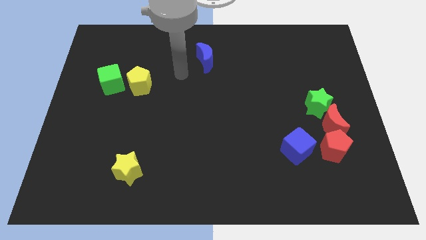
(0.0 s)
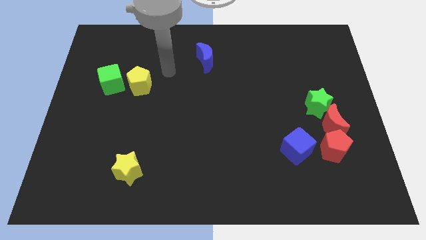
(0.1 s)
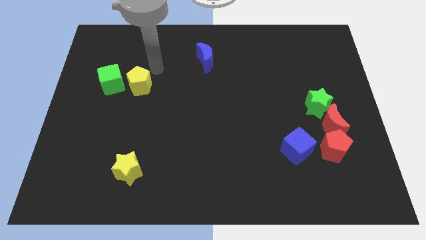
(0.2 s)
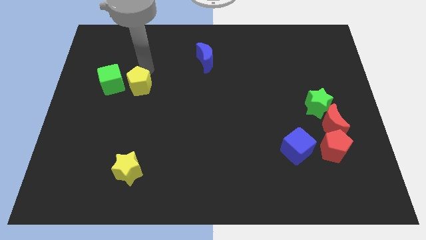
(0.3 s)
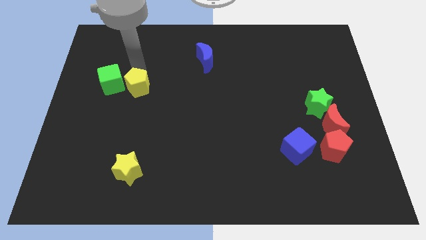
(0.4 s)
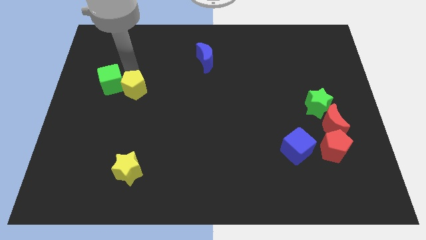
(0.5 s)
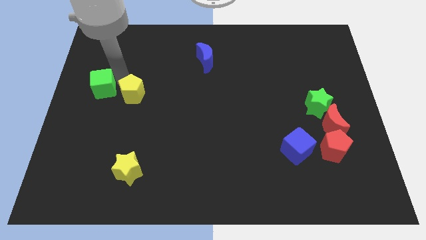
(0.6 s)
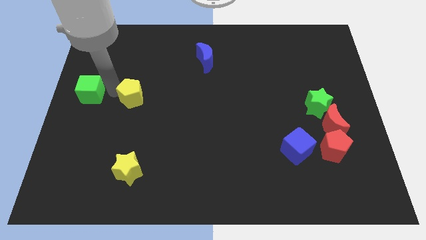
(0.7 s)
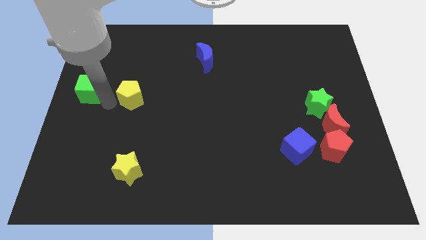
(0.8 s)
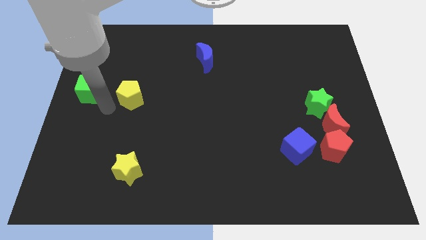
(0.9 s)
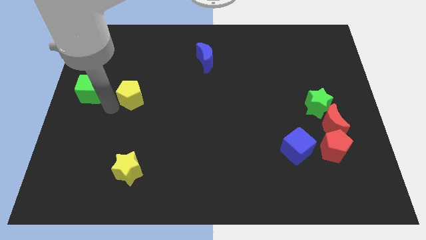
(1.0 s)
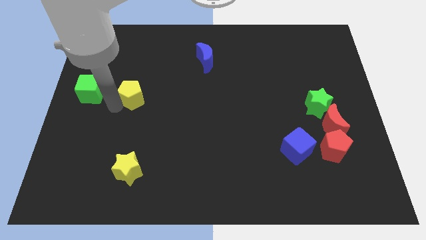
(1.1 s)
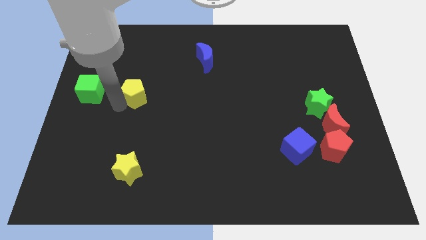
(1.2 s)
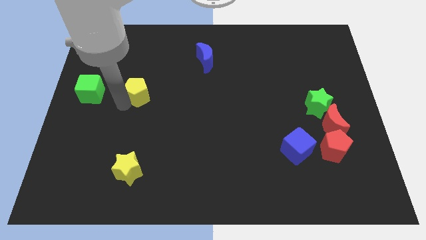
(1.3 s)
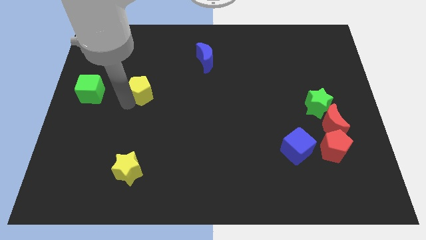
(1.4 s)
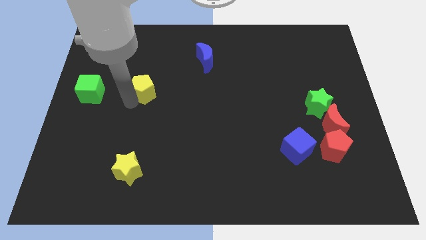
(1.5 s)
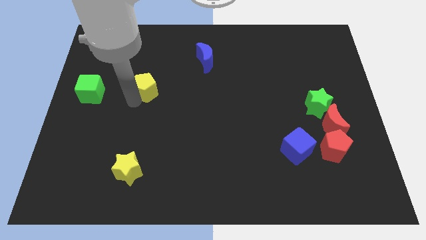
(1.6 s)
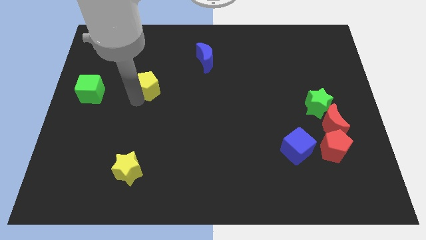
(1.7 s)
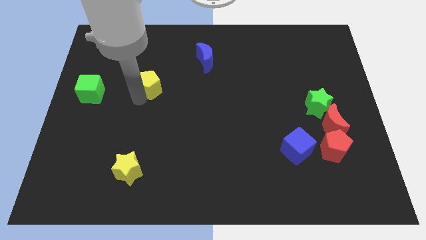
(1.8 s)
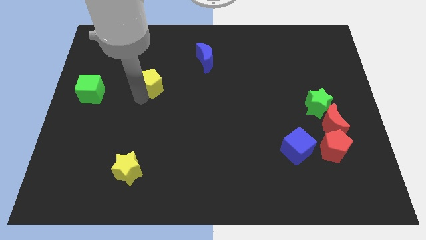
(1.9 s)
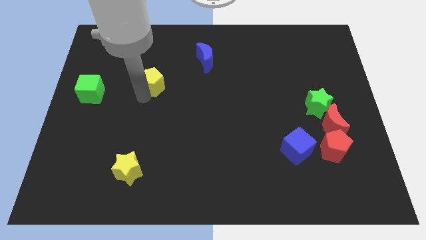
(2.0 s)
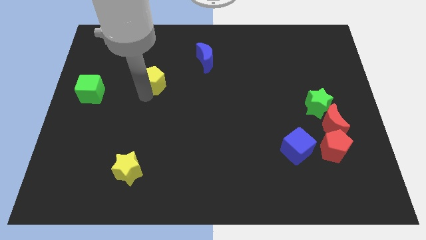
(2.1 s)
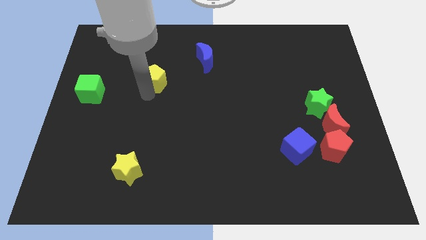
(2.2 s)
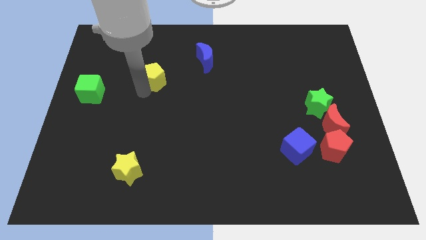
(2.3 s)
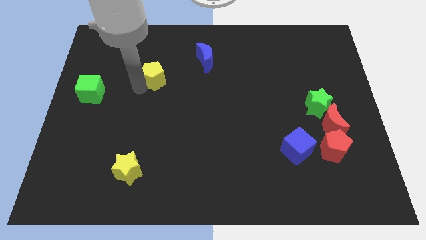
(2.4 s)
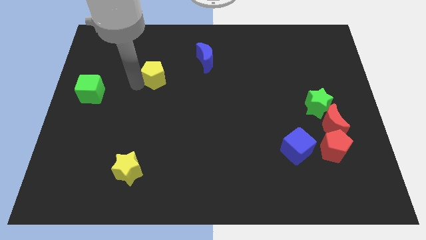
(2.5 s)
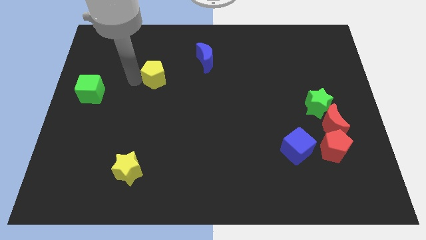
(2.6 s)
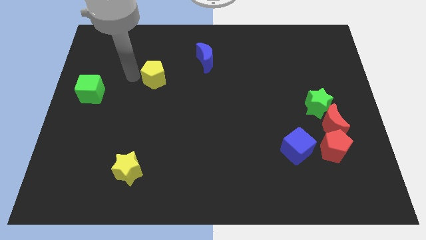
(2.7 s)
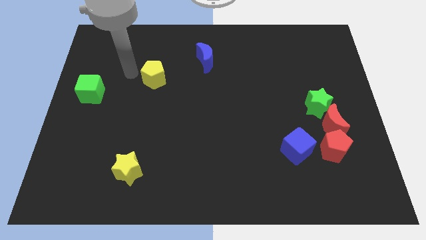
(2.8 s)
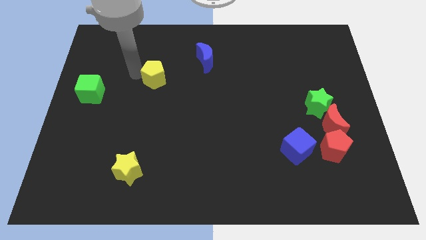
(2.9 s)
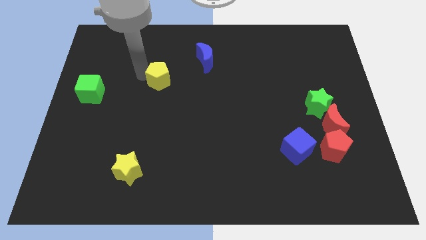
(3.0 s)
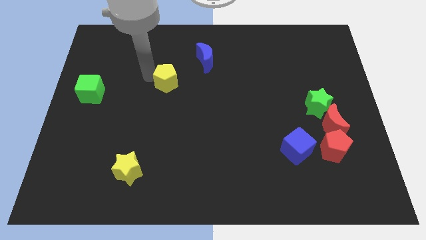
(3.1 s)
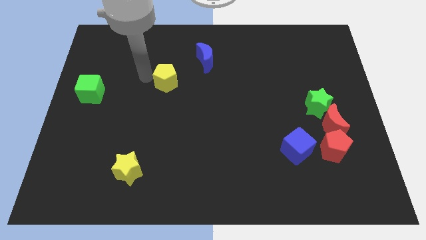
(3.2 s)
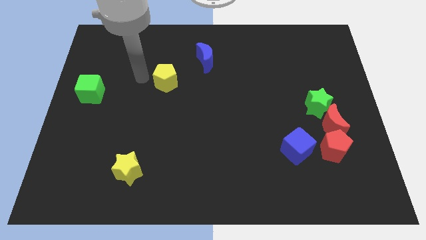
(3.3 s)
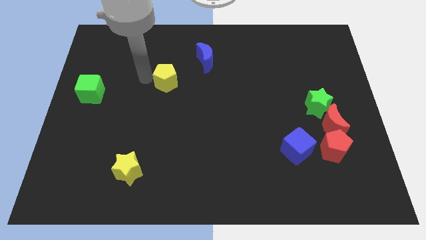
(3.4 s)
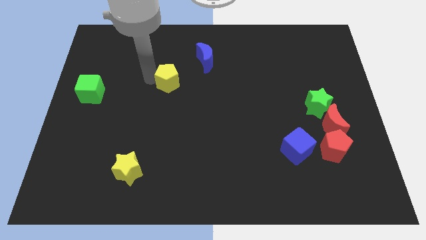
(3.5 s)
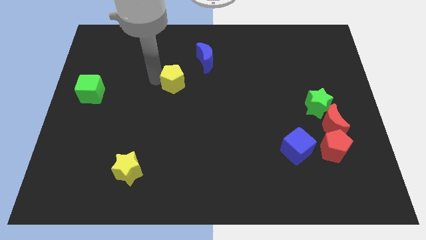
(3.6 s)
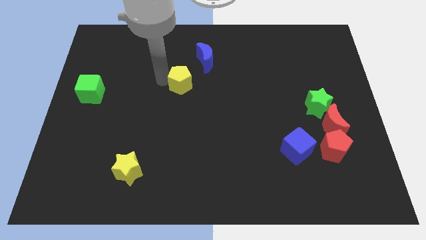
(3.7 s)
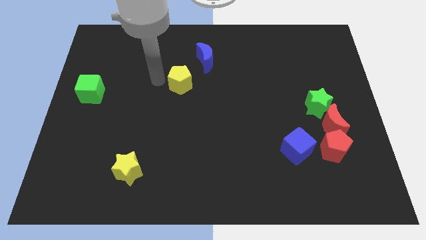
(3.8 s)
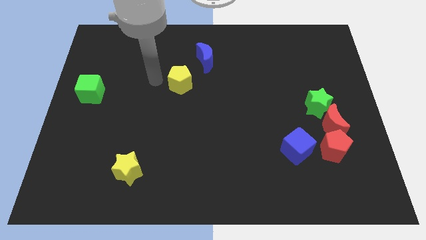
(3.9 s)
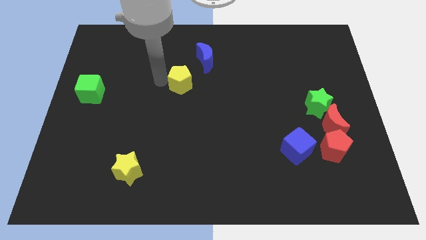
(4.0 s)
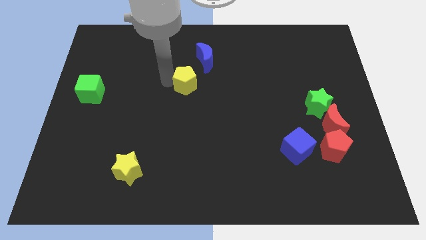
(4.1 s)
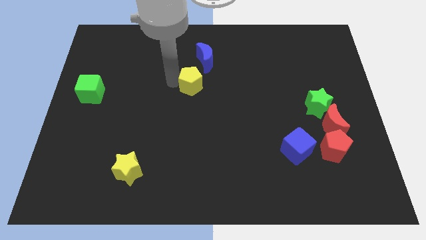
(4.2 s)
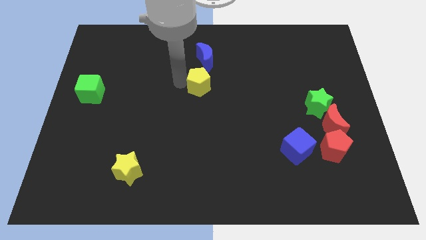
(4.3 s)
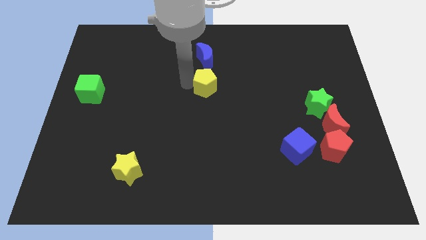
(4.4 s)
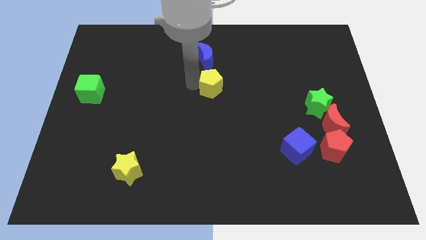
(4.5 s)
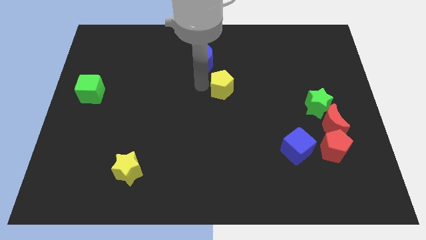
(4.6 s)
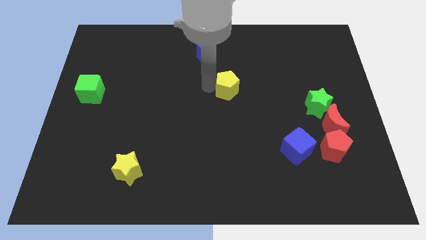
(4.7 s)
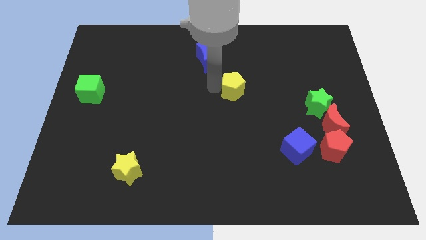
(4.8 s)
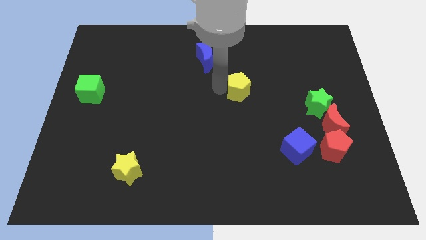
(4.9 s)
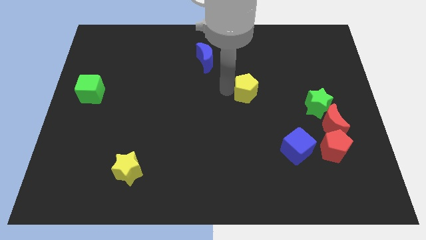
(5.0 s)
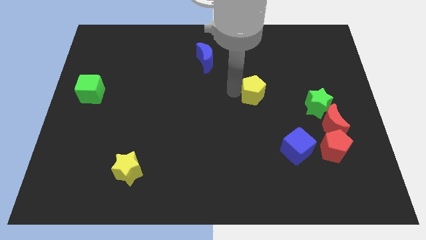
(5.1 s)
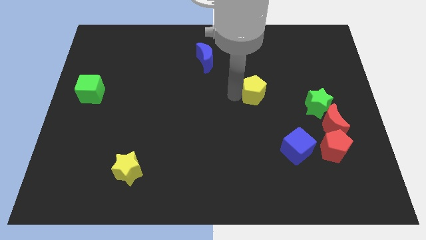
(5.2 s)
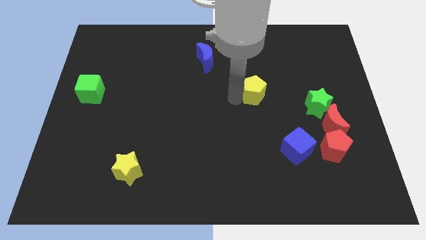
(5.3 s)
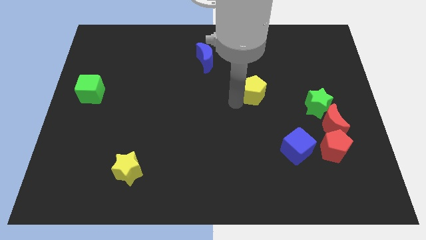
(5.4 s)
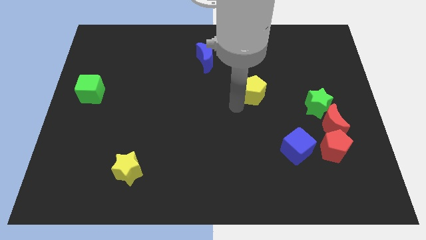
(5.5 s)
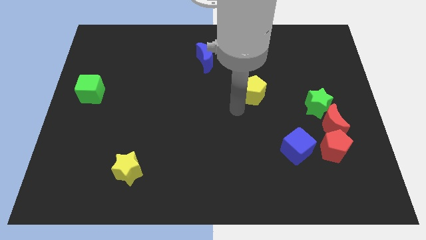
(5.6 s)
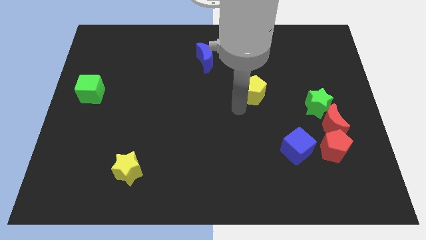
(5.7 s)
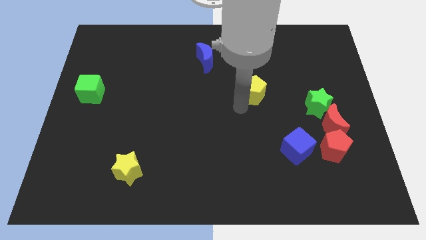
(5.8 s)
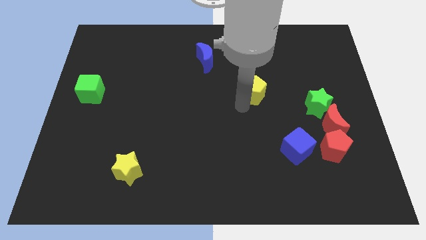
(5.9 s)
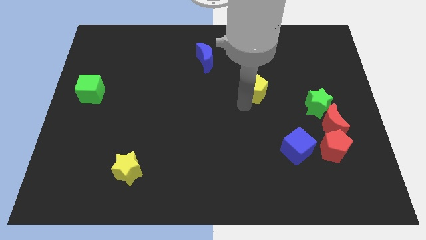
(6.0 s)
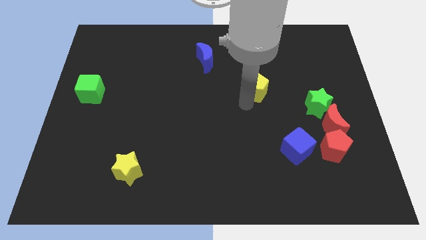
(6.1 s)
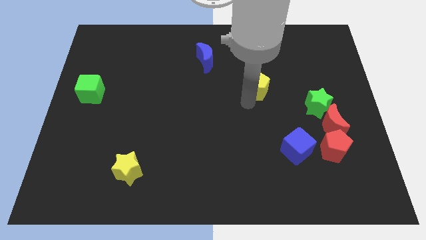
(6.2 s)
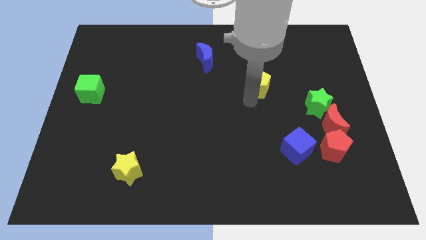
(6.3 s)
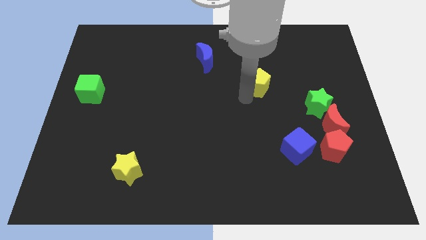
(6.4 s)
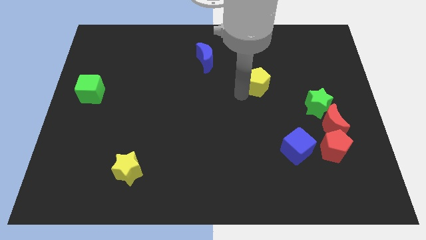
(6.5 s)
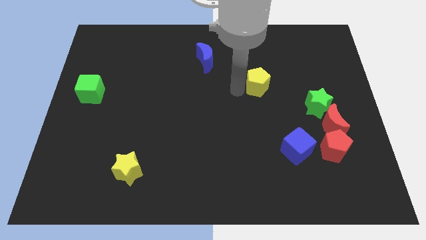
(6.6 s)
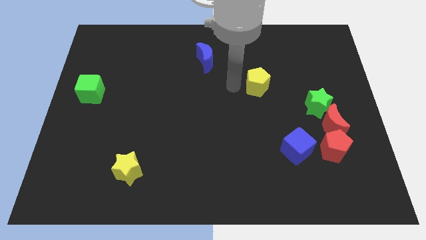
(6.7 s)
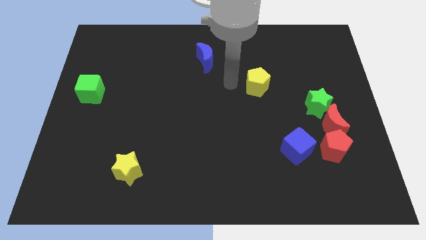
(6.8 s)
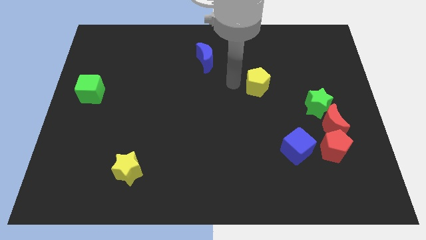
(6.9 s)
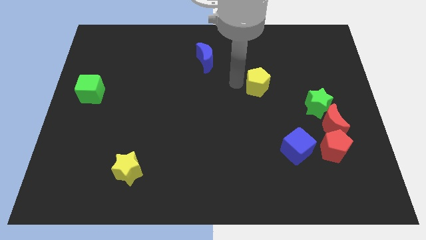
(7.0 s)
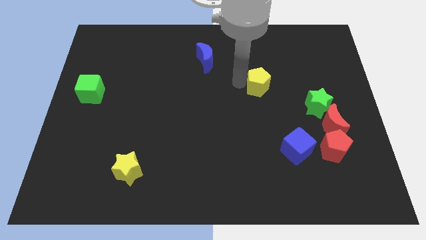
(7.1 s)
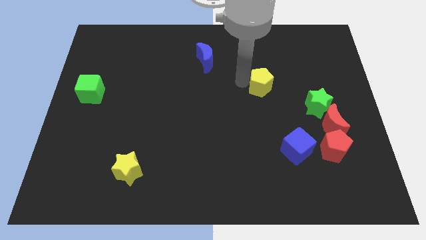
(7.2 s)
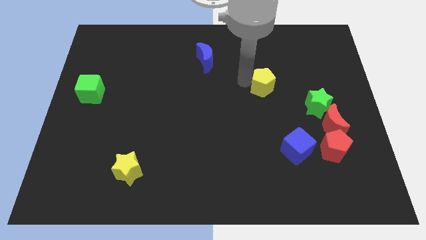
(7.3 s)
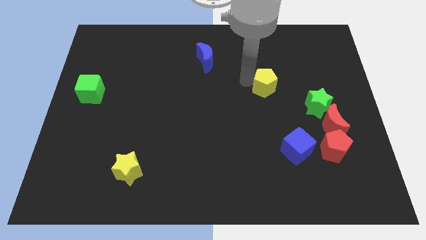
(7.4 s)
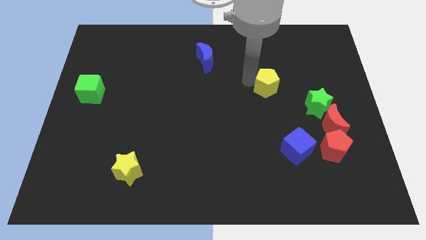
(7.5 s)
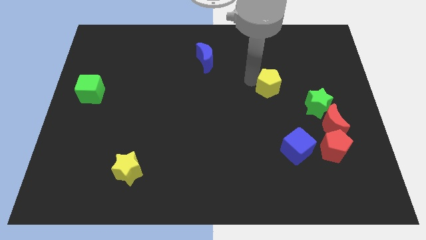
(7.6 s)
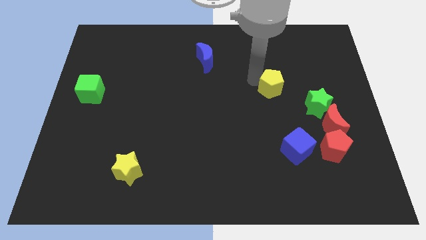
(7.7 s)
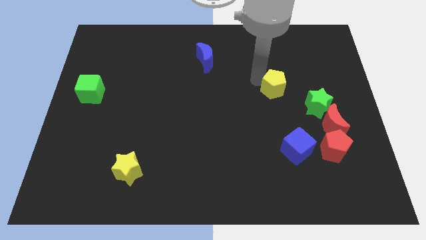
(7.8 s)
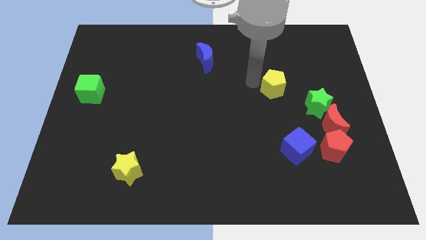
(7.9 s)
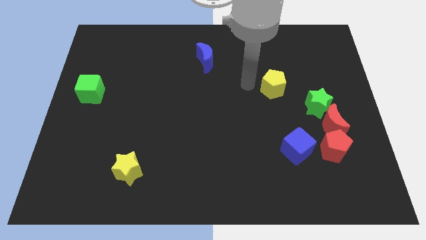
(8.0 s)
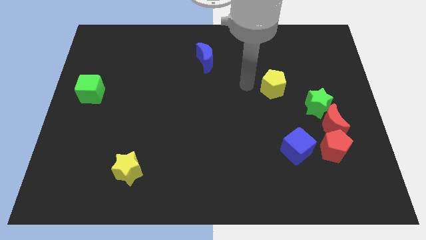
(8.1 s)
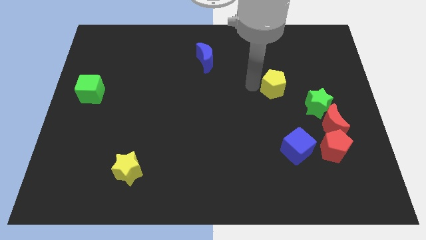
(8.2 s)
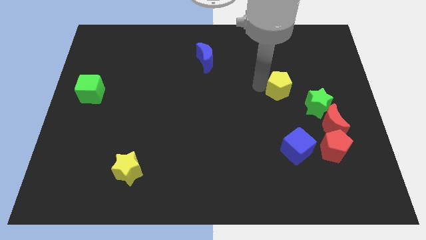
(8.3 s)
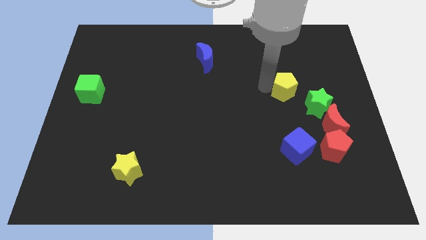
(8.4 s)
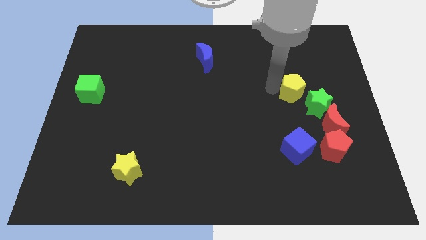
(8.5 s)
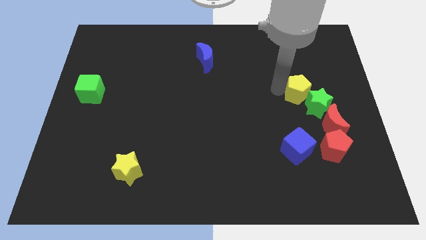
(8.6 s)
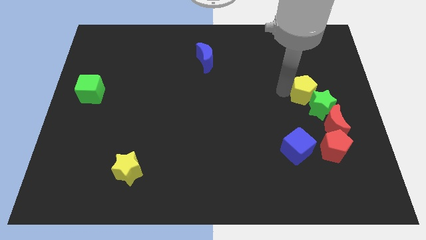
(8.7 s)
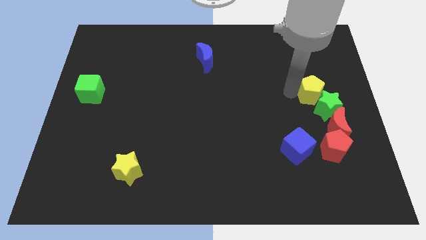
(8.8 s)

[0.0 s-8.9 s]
move the yellow pentagon to the top of the red moon
